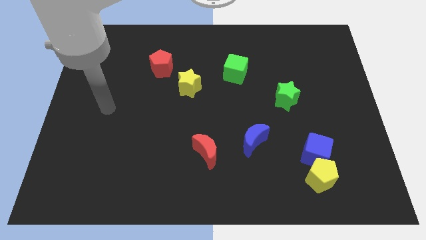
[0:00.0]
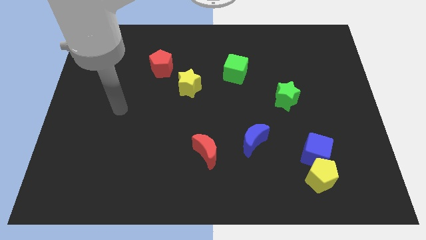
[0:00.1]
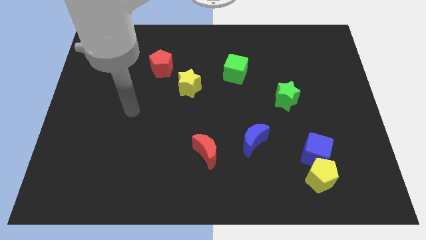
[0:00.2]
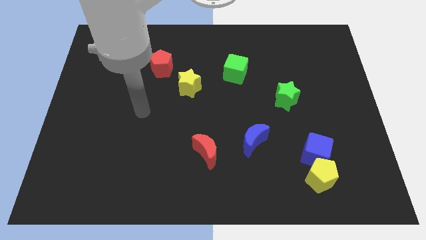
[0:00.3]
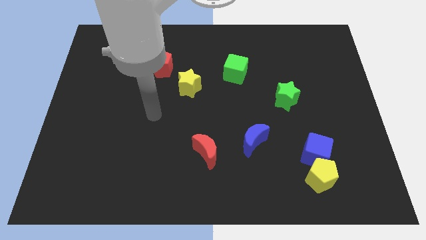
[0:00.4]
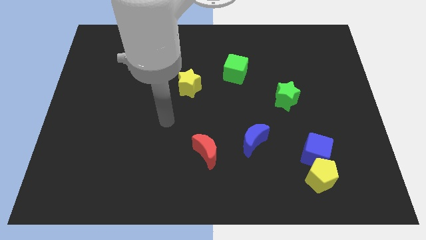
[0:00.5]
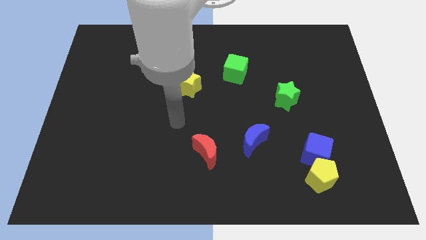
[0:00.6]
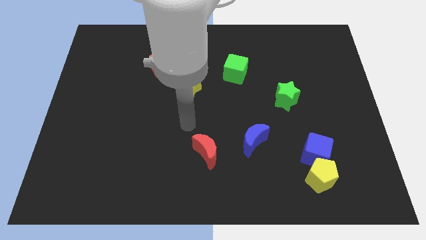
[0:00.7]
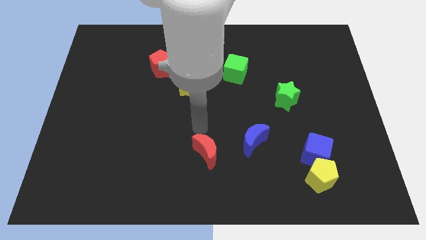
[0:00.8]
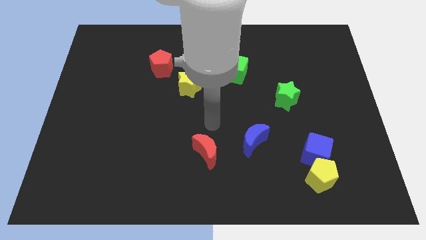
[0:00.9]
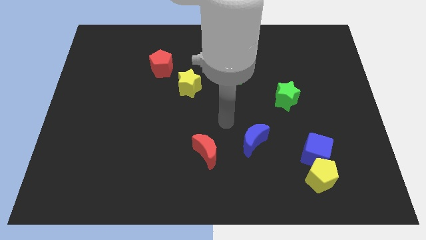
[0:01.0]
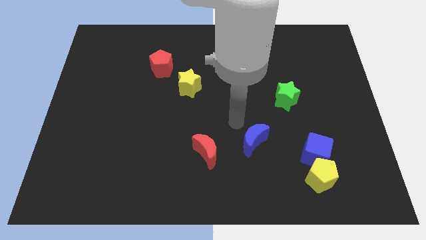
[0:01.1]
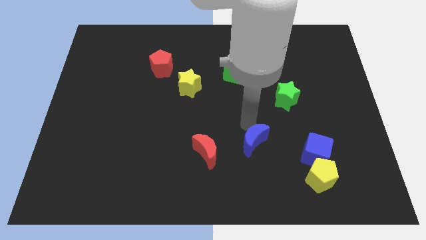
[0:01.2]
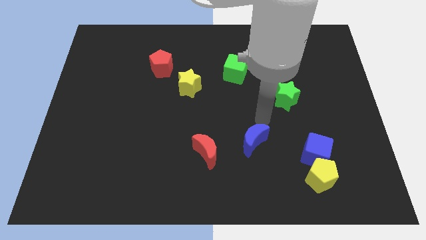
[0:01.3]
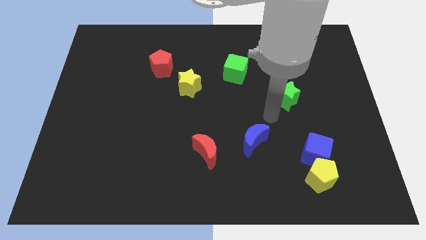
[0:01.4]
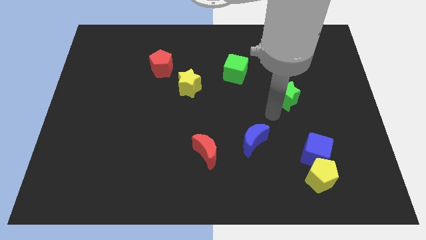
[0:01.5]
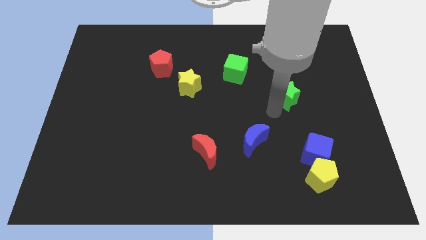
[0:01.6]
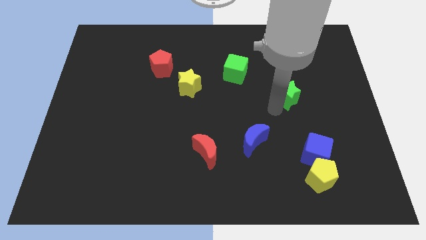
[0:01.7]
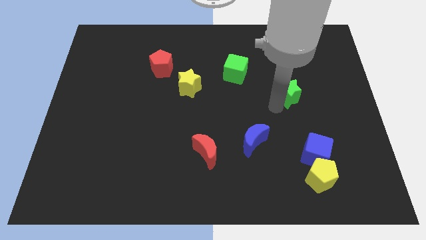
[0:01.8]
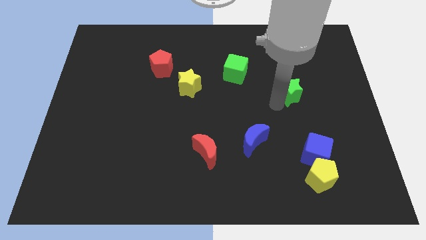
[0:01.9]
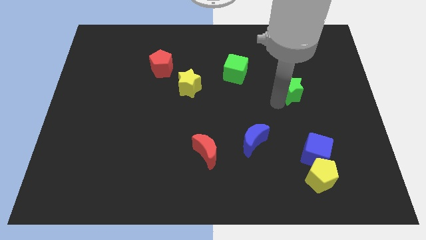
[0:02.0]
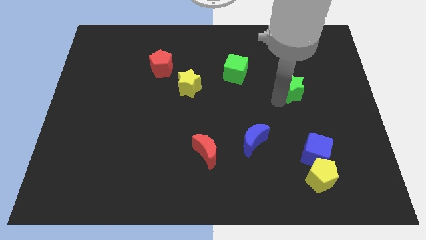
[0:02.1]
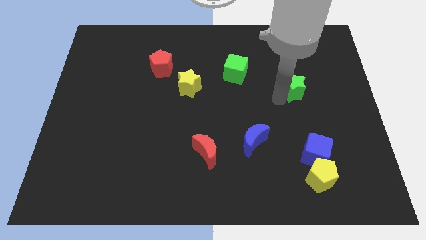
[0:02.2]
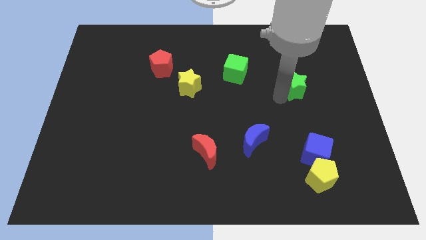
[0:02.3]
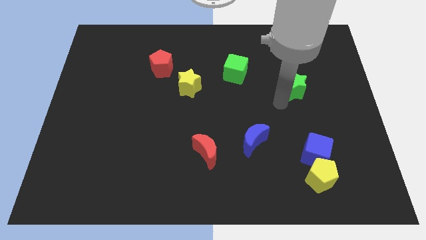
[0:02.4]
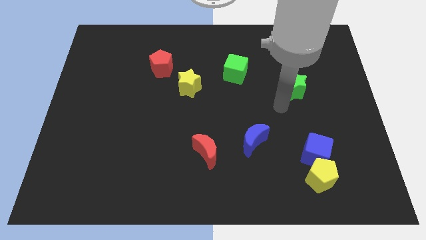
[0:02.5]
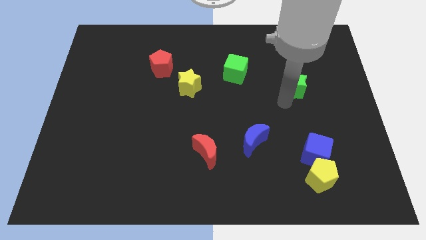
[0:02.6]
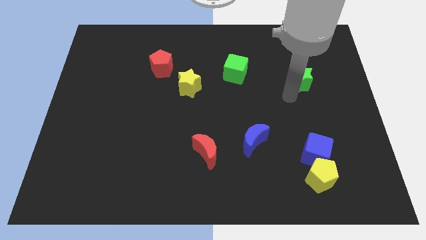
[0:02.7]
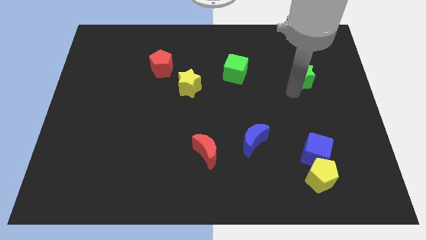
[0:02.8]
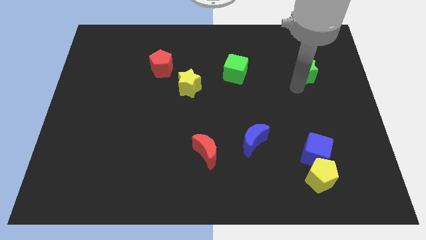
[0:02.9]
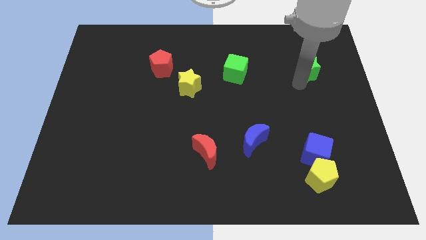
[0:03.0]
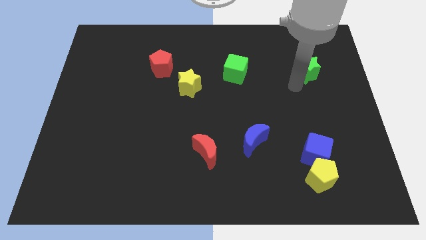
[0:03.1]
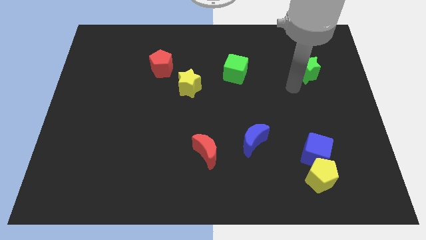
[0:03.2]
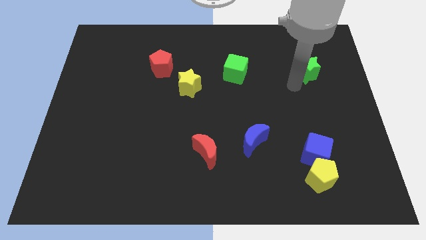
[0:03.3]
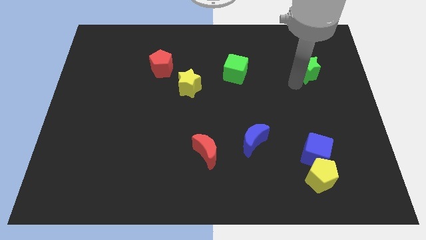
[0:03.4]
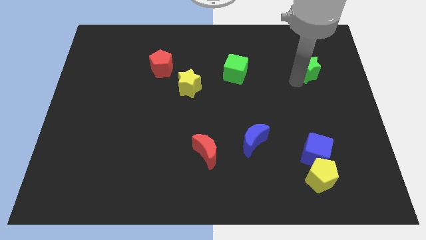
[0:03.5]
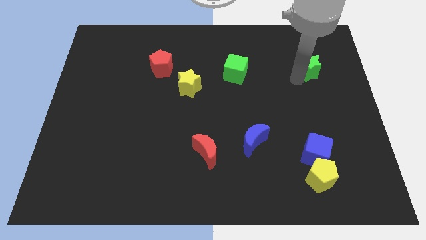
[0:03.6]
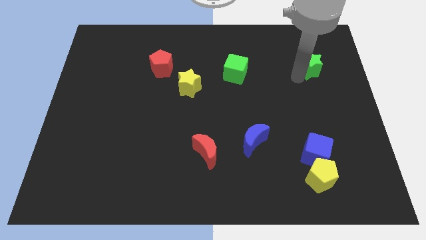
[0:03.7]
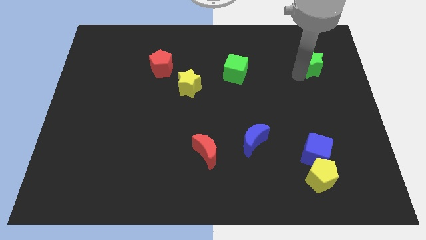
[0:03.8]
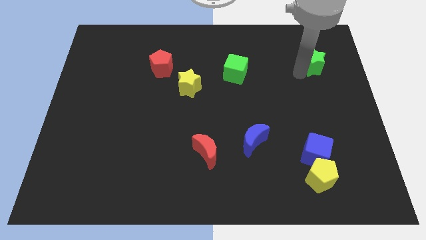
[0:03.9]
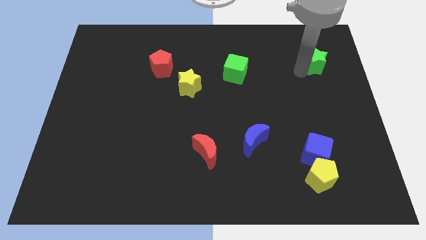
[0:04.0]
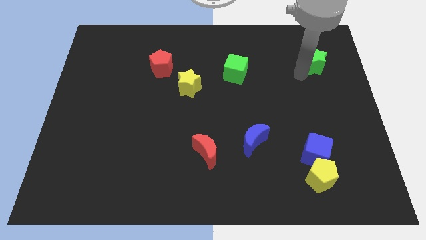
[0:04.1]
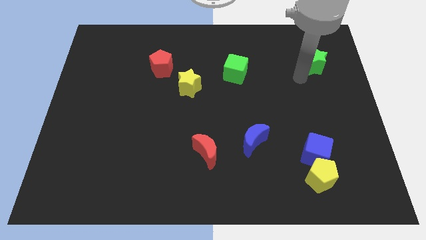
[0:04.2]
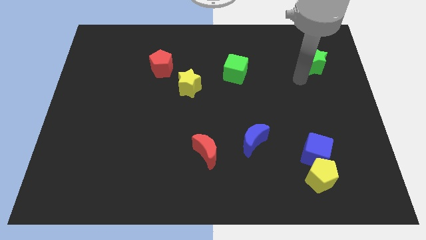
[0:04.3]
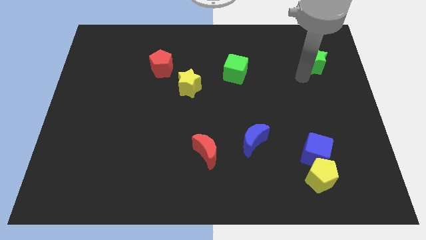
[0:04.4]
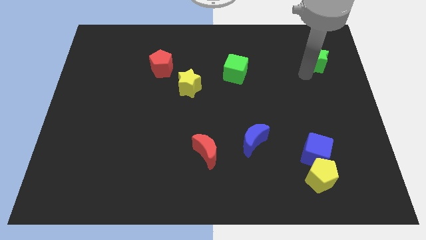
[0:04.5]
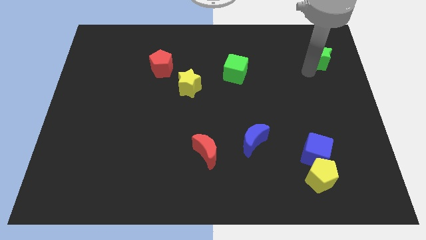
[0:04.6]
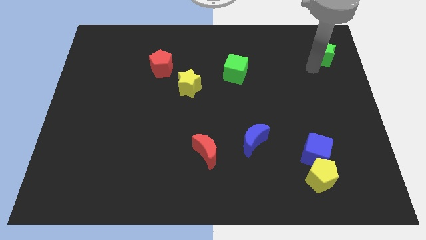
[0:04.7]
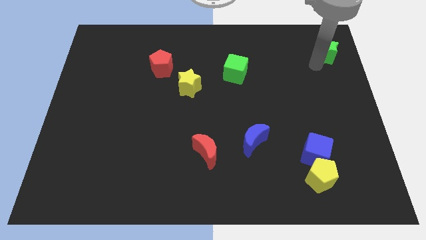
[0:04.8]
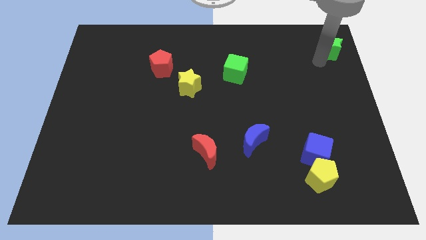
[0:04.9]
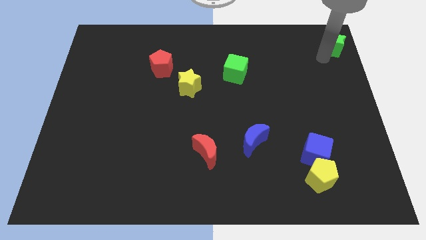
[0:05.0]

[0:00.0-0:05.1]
slide the green star to the top right

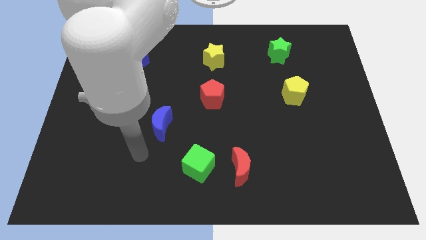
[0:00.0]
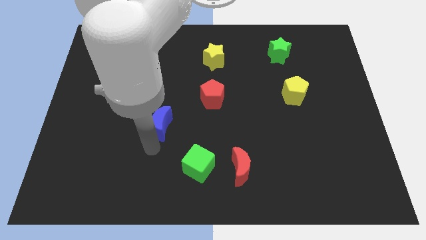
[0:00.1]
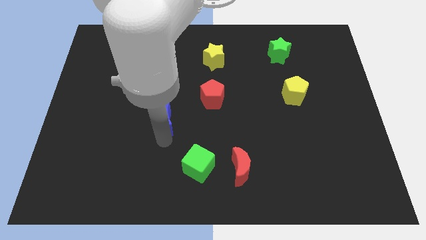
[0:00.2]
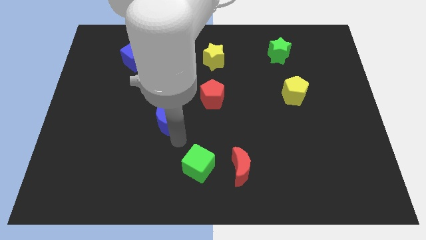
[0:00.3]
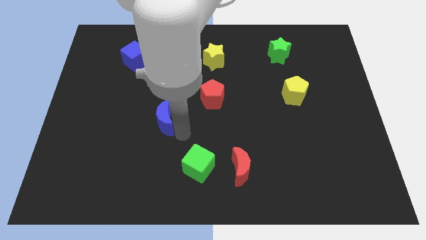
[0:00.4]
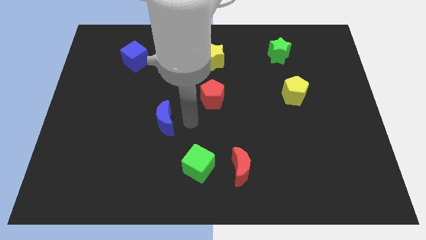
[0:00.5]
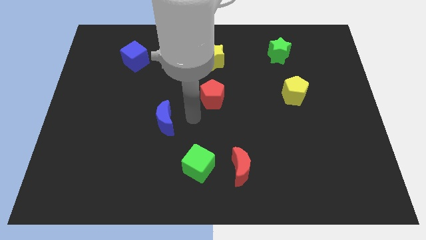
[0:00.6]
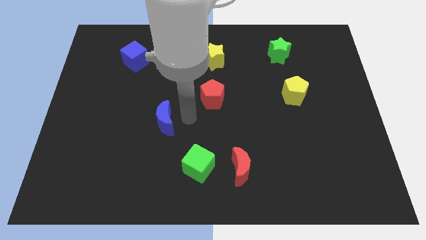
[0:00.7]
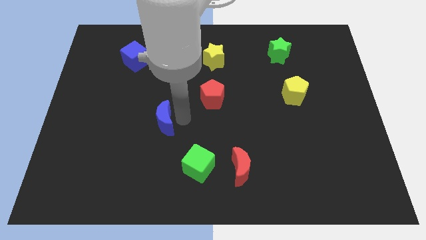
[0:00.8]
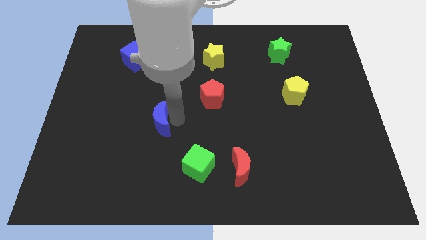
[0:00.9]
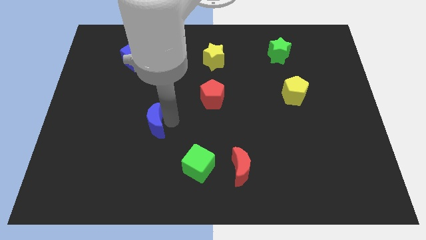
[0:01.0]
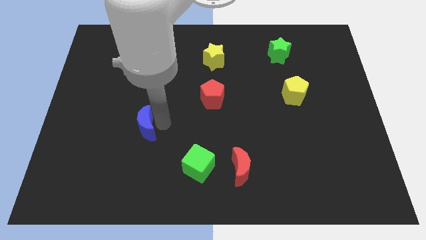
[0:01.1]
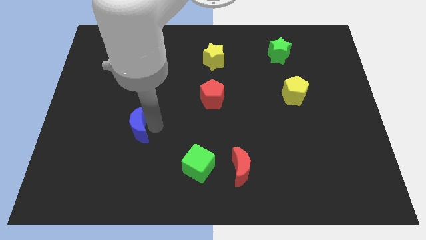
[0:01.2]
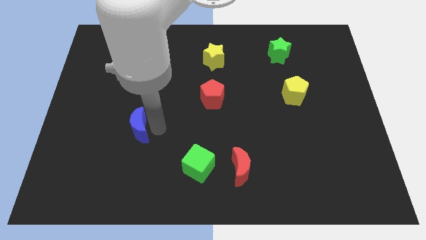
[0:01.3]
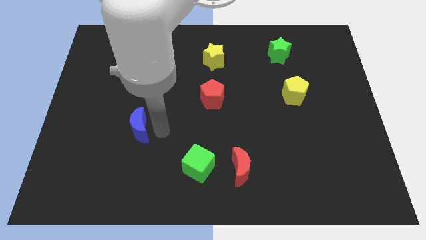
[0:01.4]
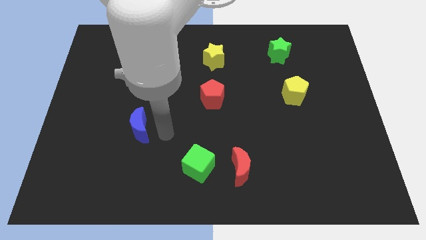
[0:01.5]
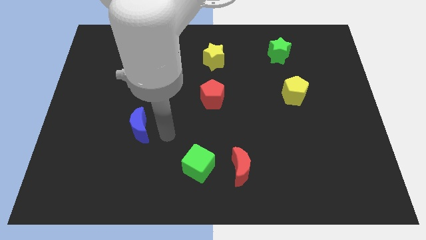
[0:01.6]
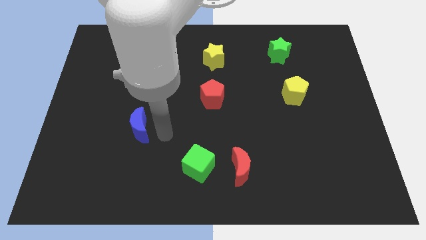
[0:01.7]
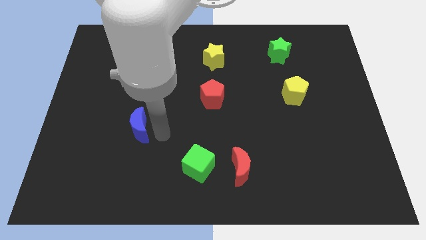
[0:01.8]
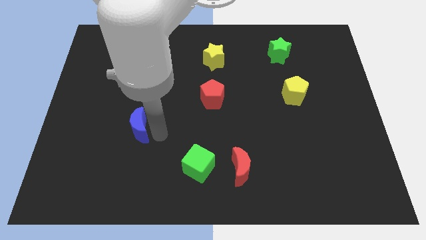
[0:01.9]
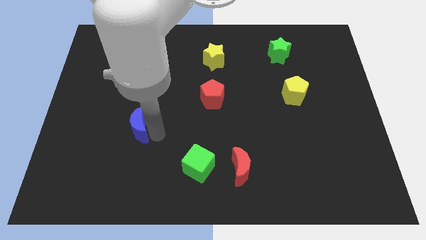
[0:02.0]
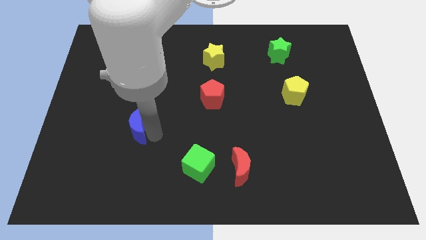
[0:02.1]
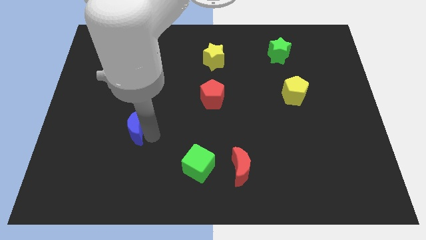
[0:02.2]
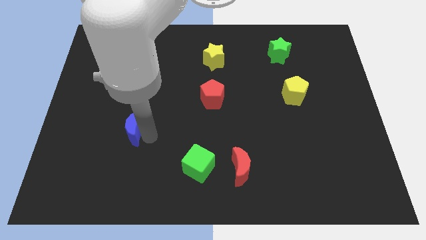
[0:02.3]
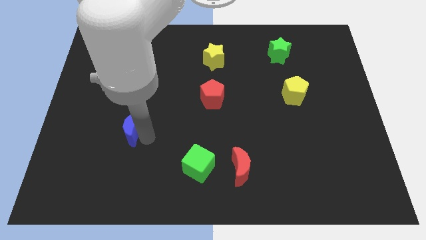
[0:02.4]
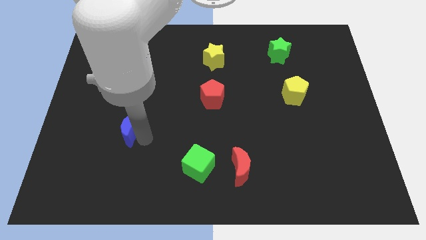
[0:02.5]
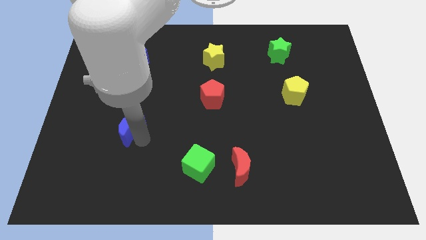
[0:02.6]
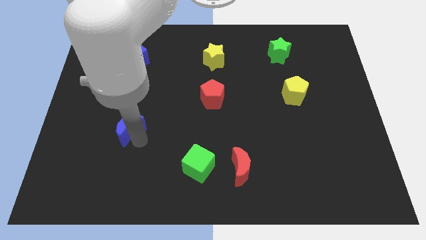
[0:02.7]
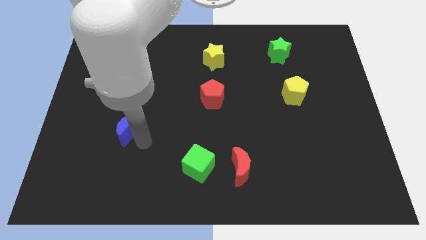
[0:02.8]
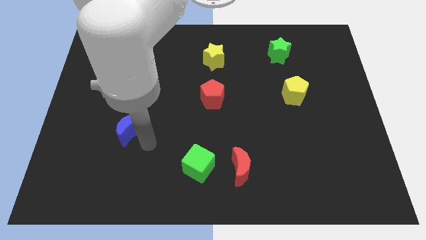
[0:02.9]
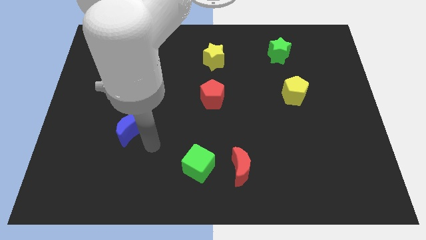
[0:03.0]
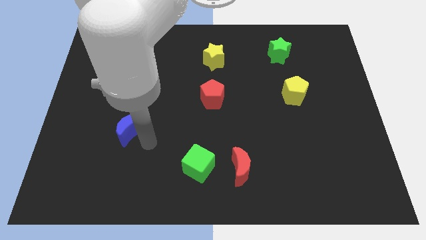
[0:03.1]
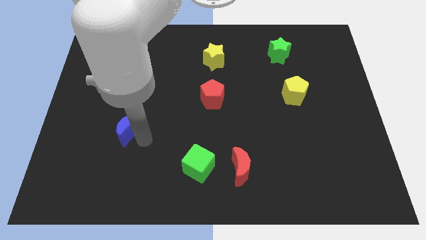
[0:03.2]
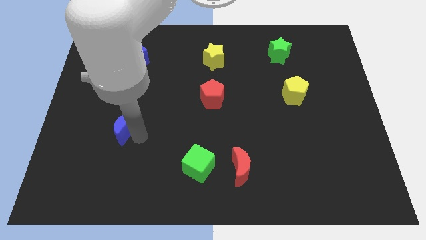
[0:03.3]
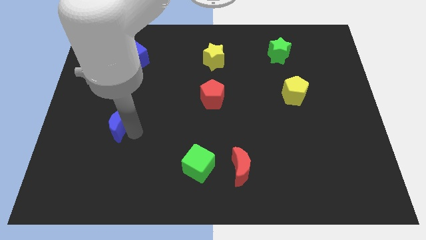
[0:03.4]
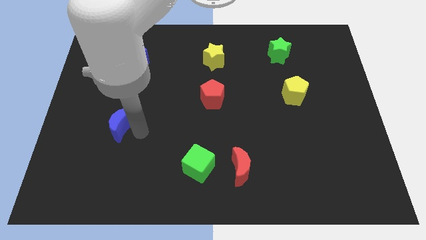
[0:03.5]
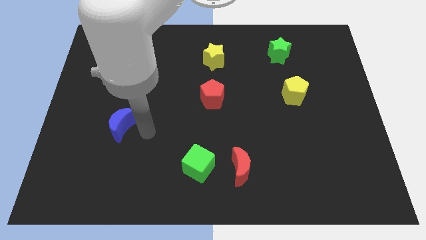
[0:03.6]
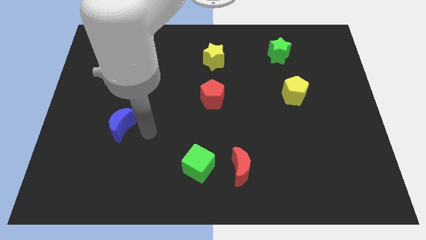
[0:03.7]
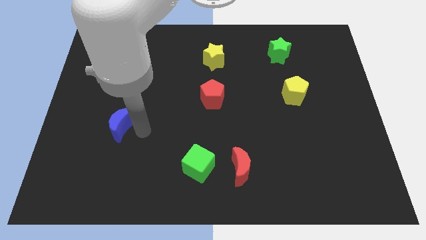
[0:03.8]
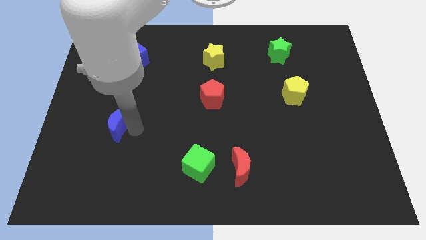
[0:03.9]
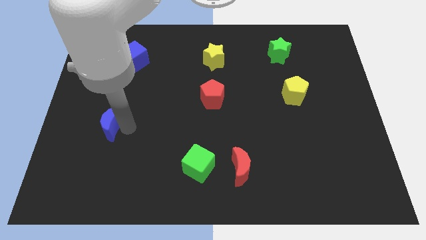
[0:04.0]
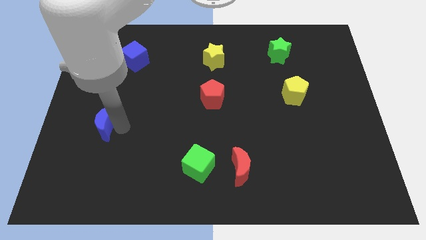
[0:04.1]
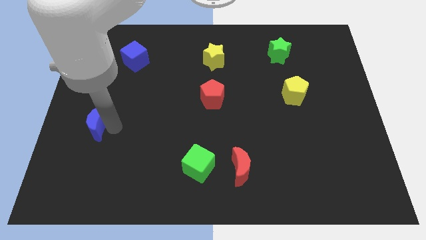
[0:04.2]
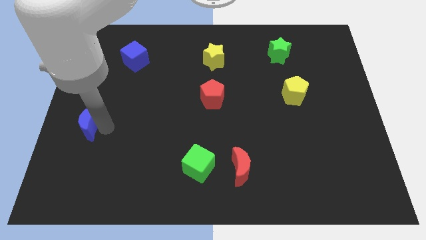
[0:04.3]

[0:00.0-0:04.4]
push the blue moon to the left side
